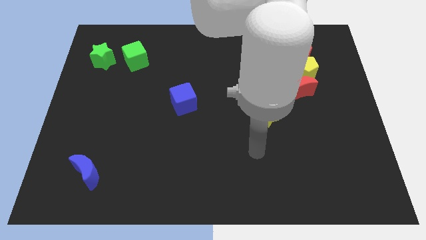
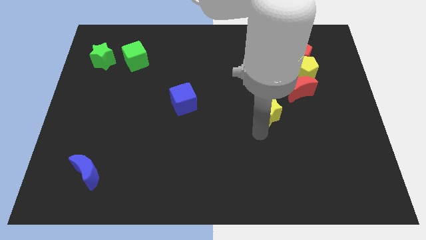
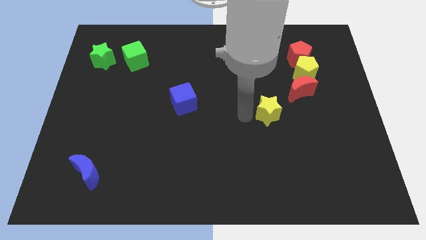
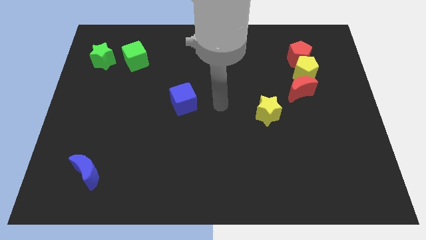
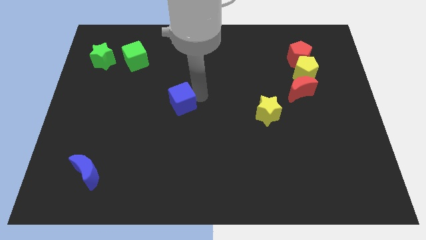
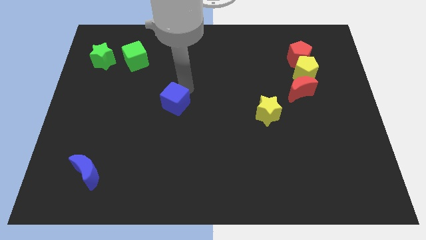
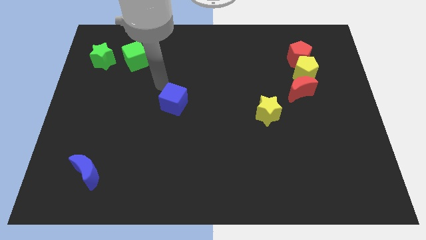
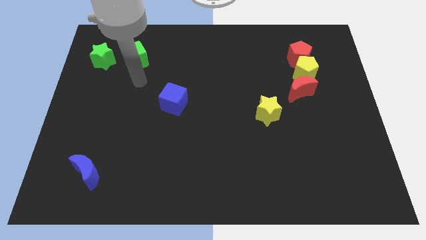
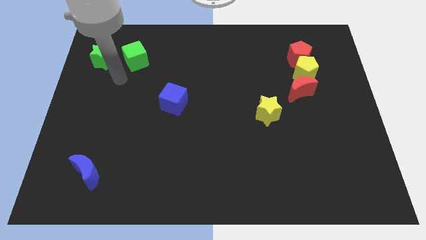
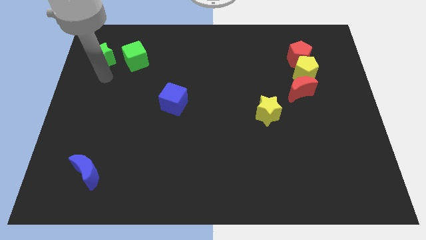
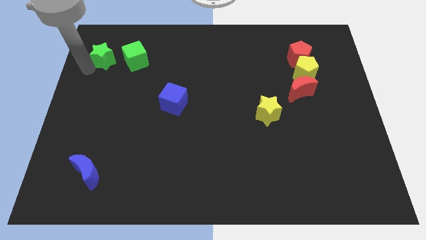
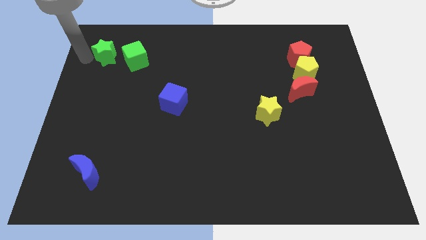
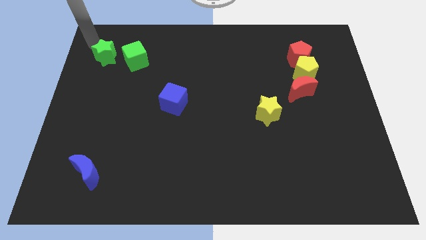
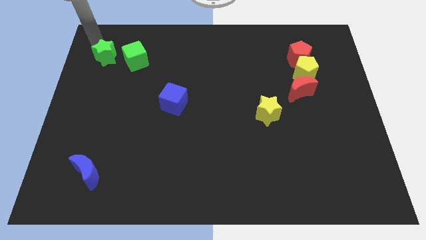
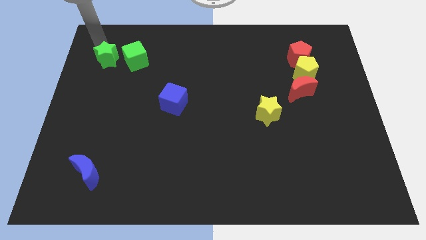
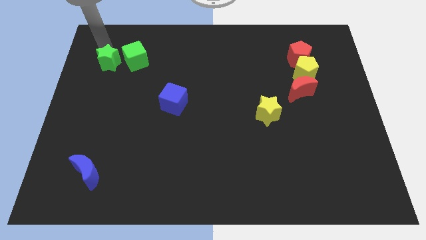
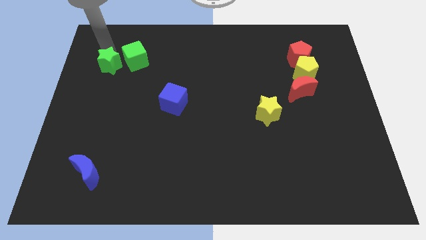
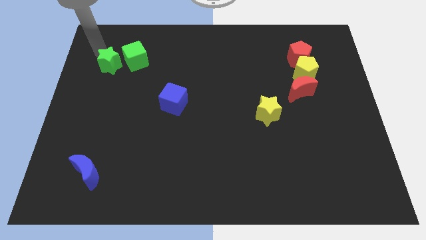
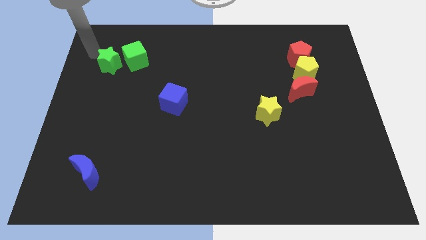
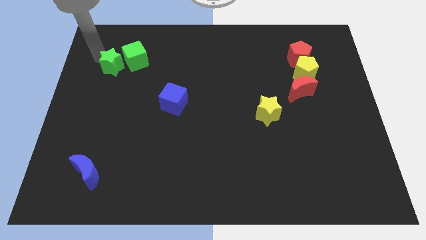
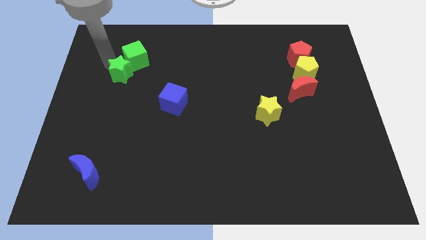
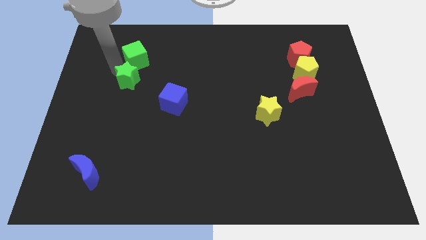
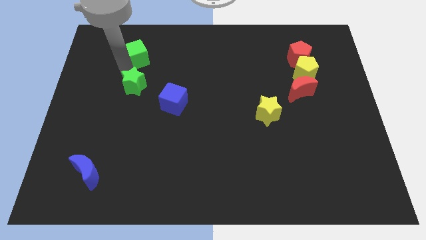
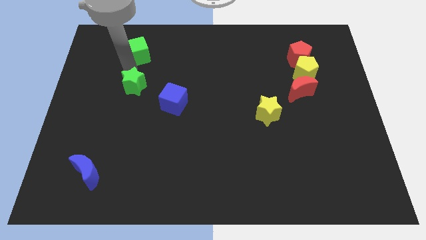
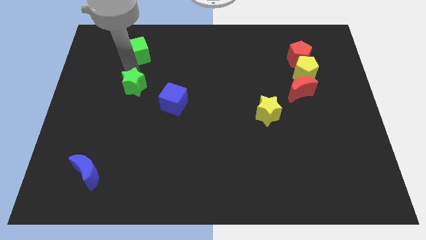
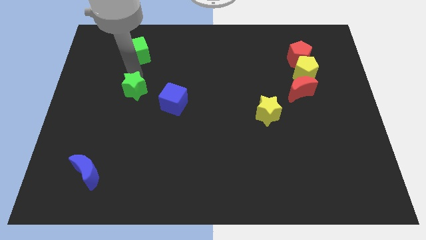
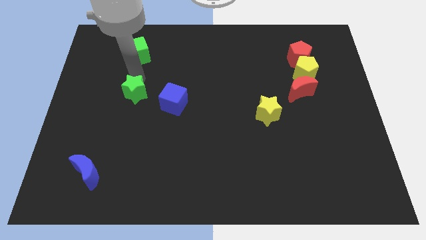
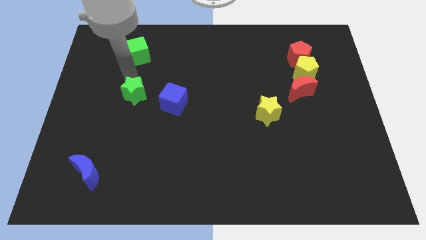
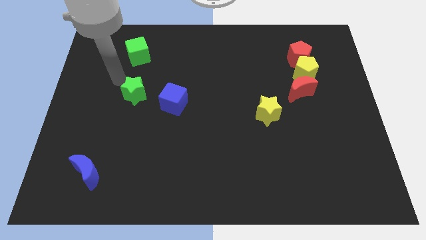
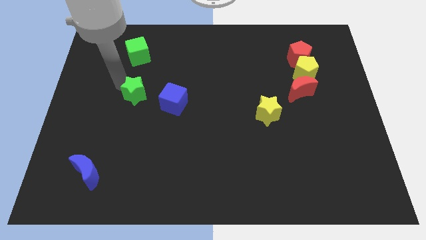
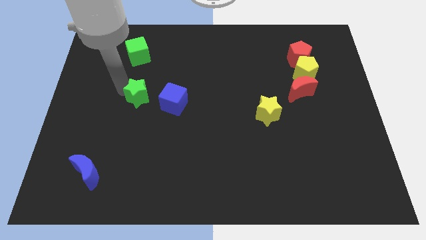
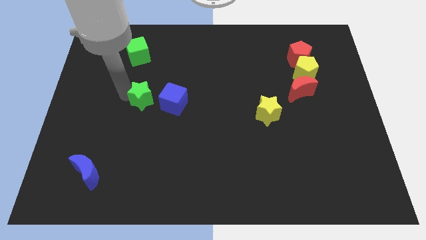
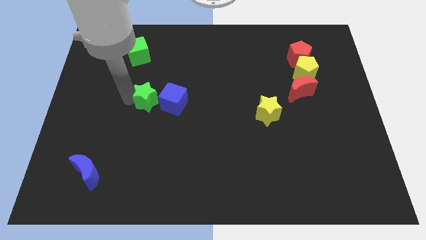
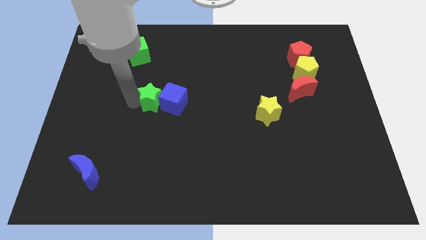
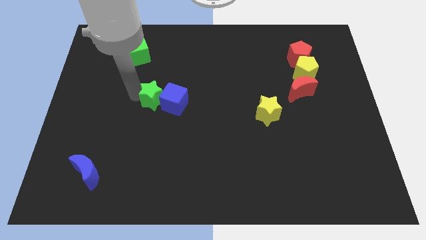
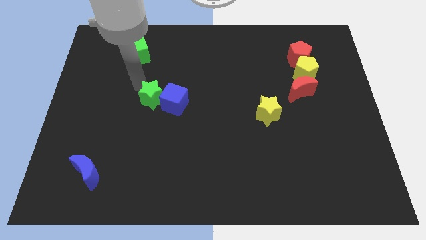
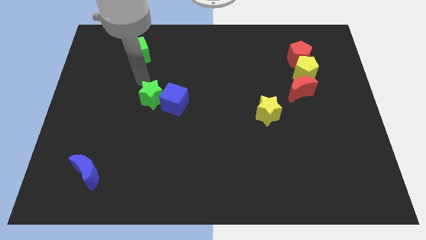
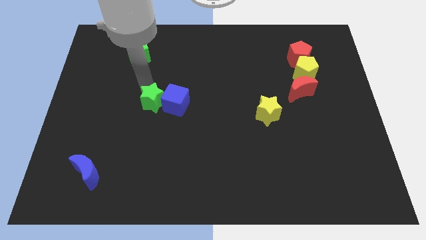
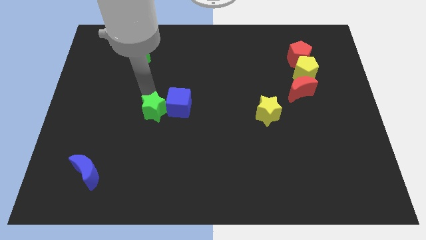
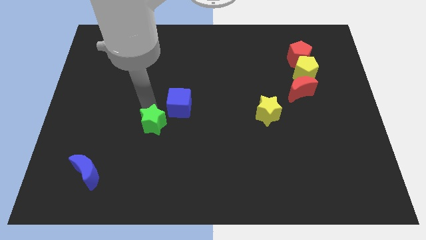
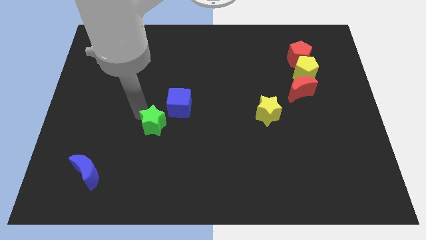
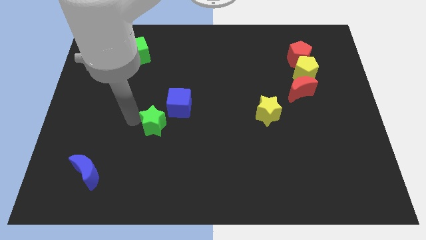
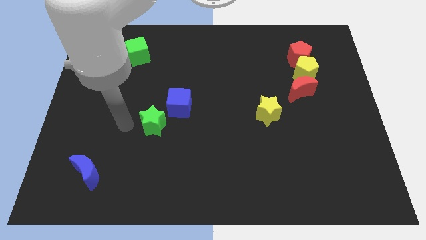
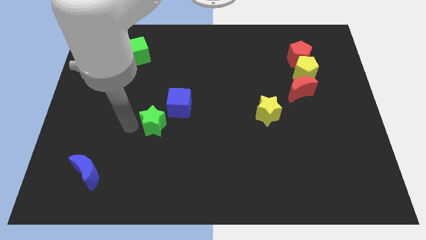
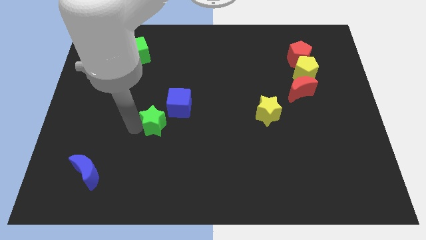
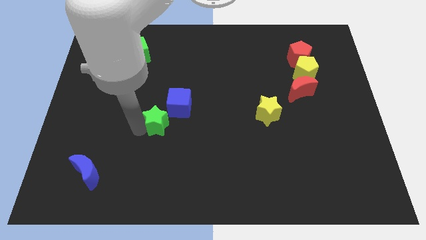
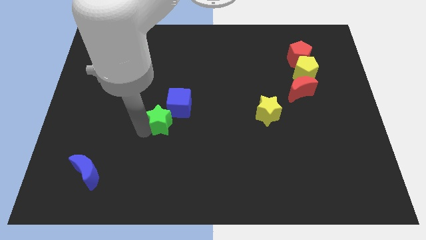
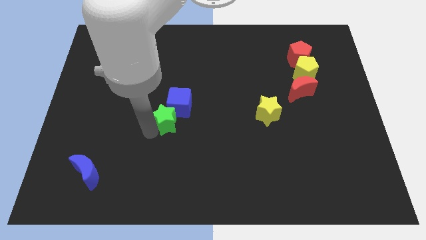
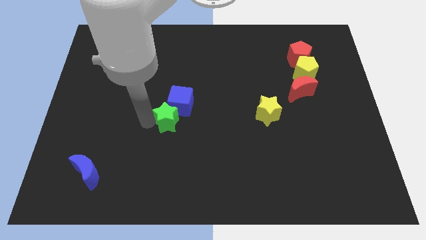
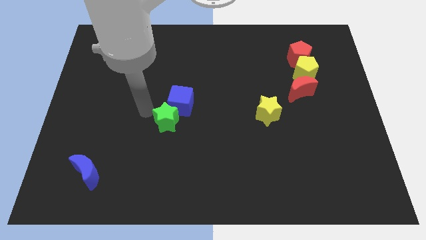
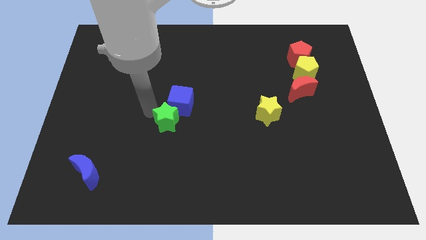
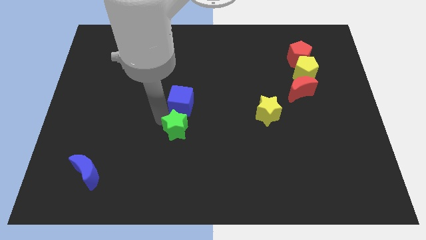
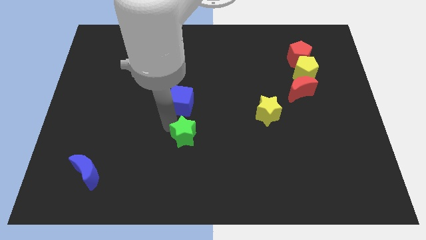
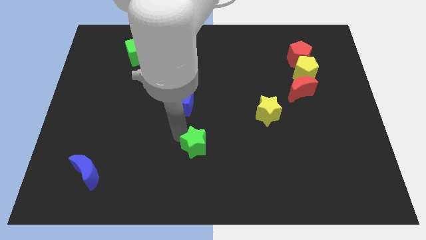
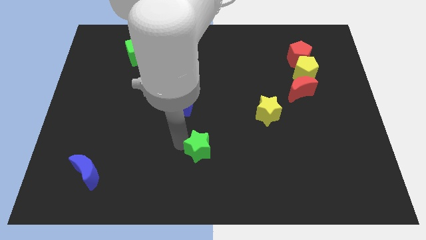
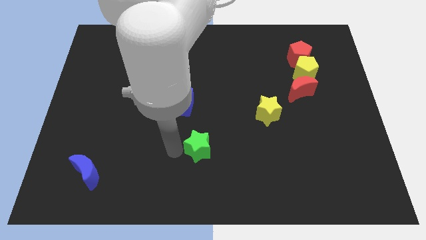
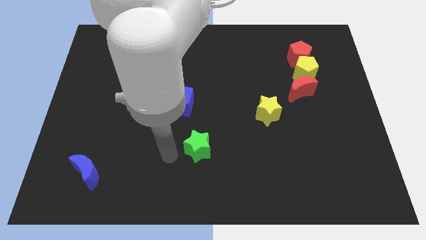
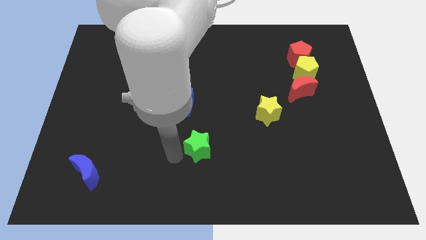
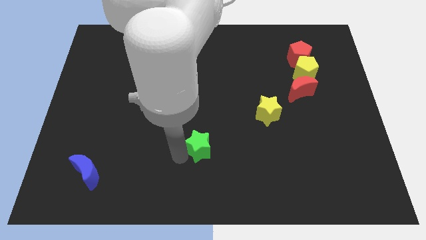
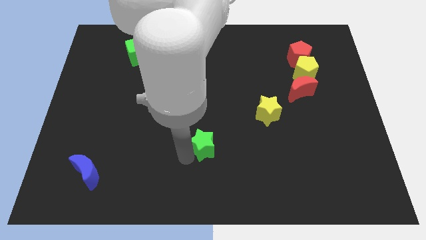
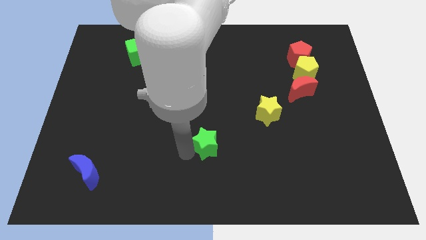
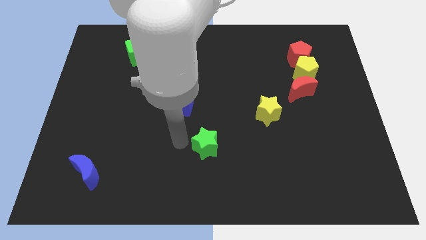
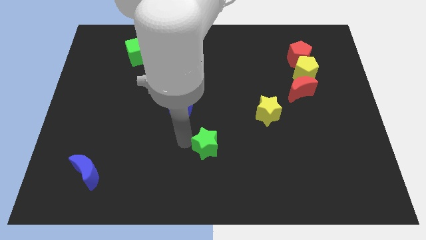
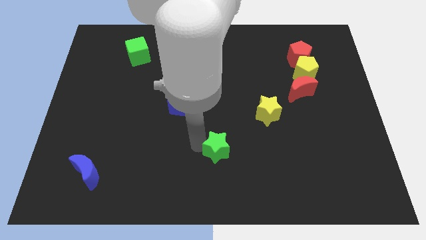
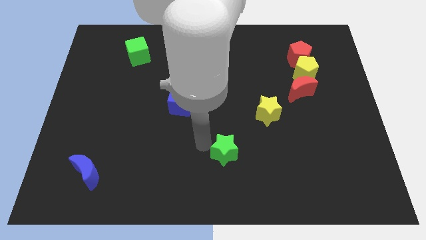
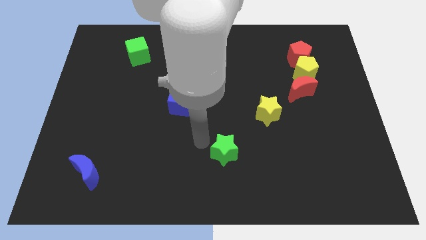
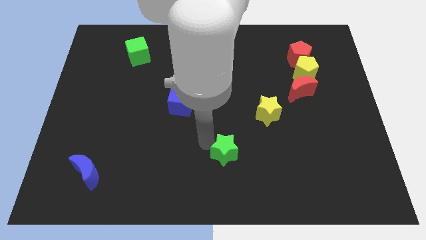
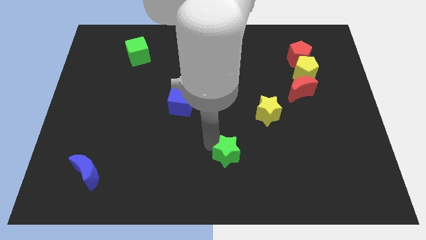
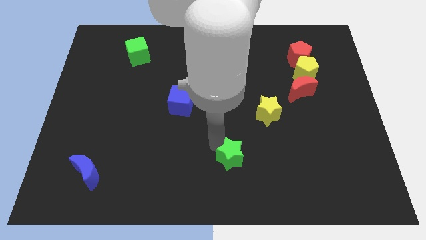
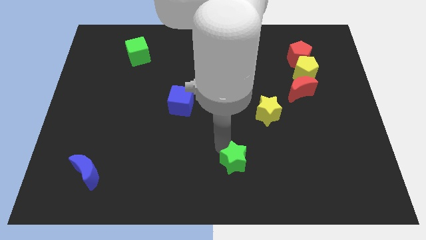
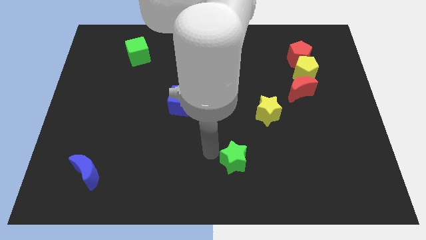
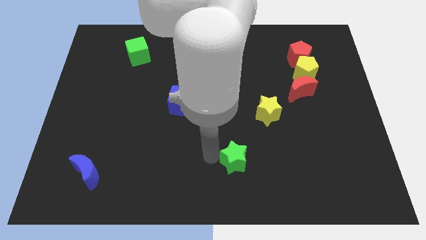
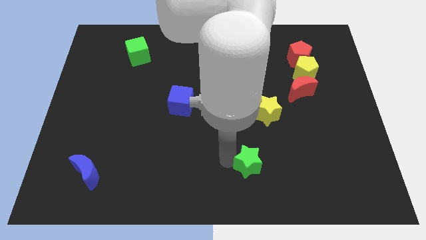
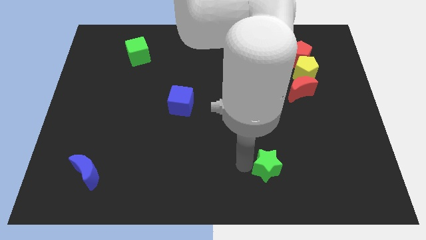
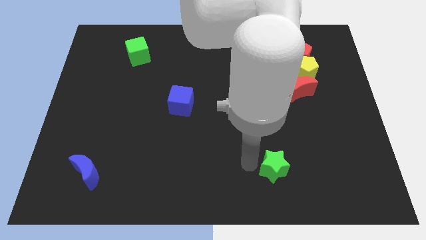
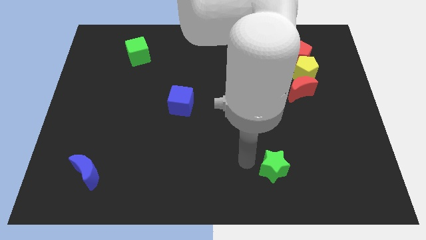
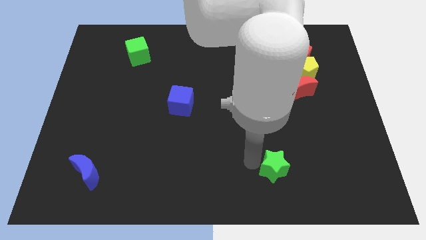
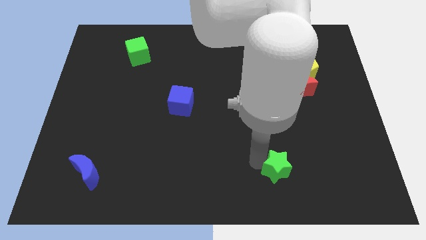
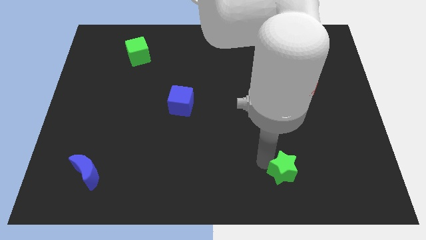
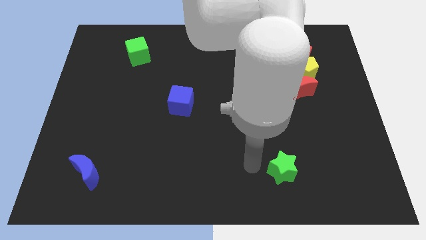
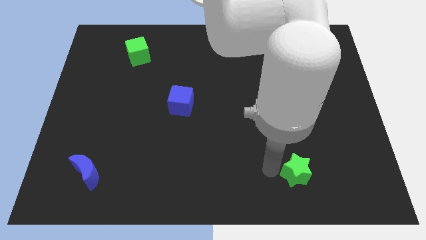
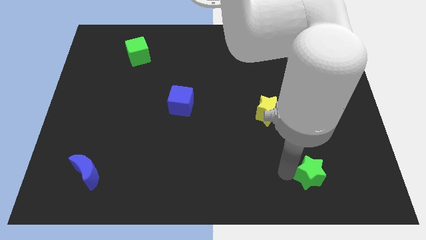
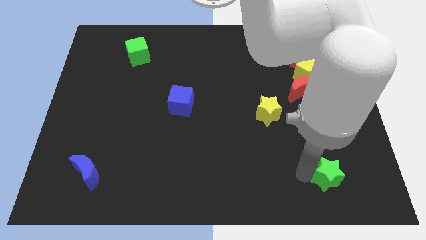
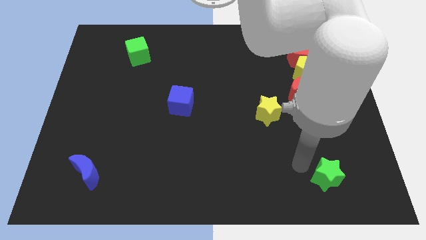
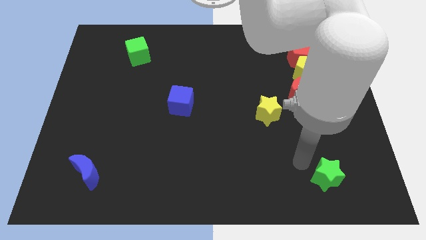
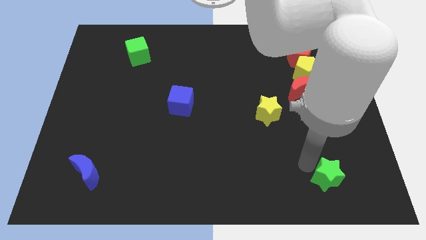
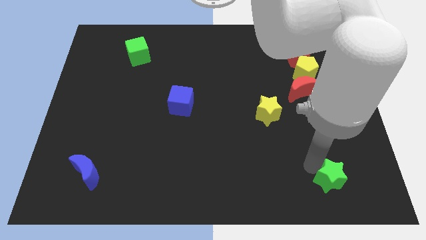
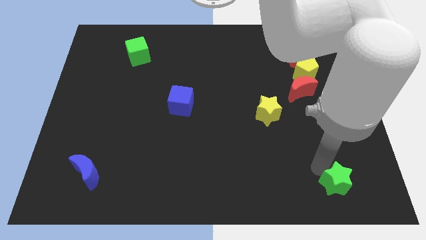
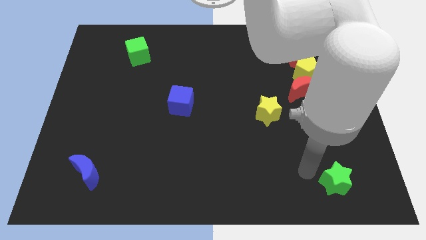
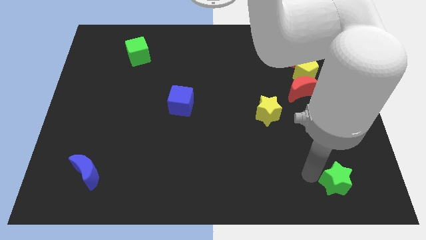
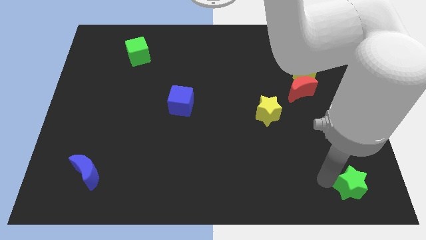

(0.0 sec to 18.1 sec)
put the green star to the bottom right of the board
